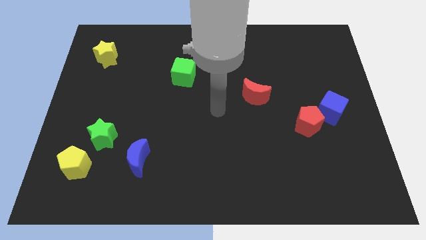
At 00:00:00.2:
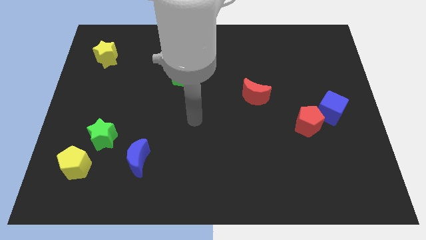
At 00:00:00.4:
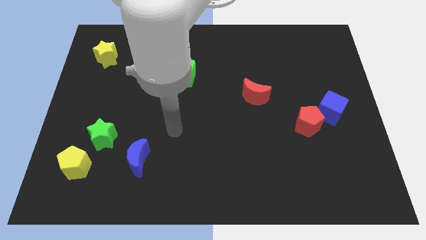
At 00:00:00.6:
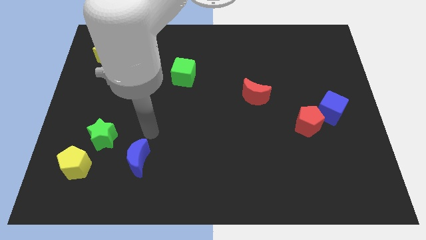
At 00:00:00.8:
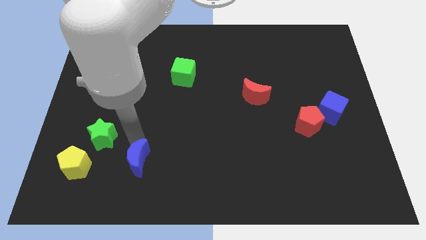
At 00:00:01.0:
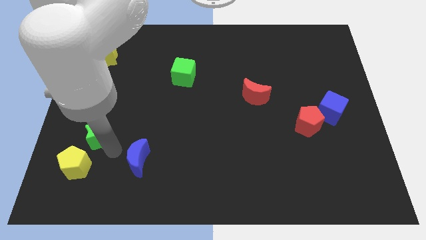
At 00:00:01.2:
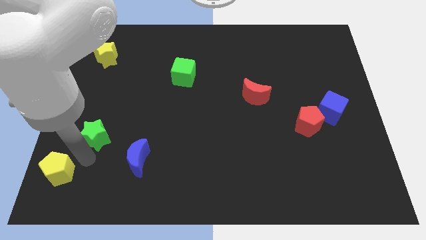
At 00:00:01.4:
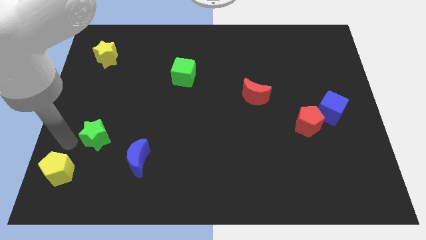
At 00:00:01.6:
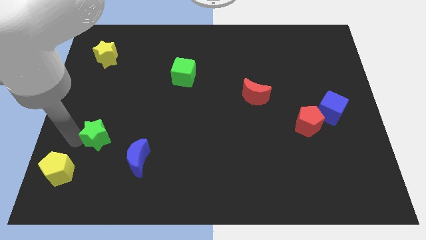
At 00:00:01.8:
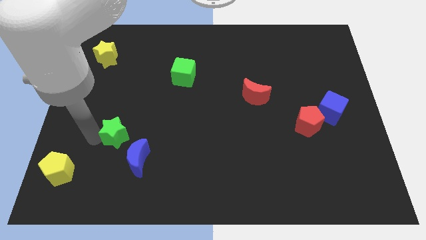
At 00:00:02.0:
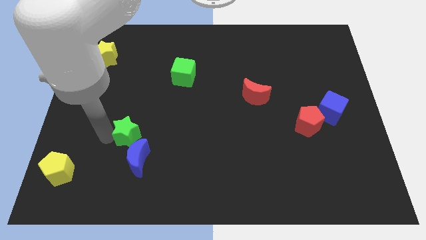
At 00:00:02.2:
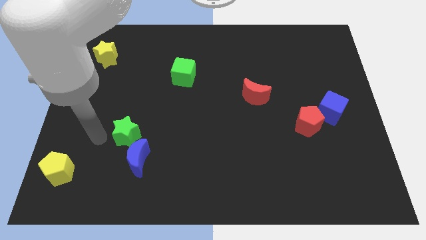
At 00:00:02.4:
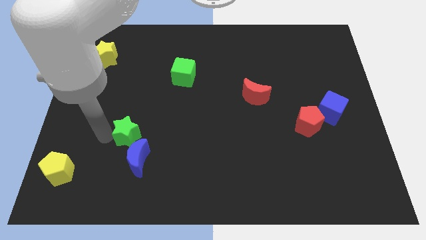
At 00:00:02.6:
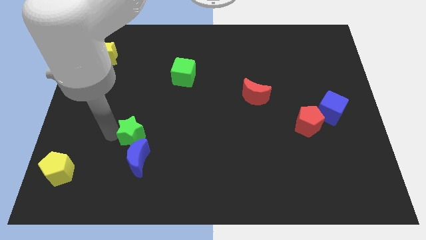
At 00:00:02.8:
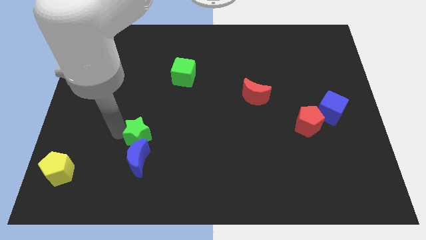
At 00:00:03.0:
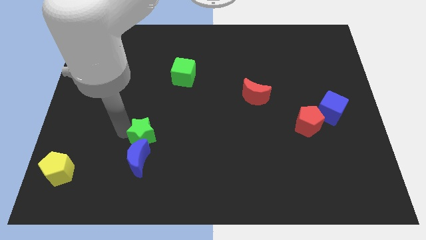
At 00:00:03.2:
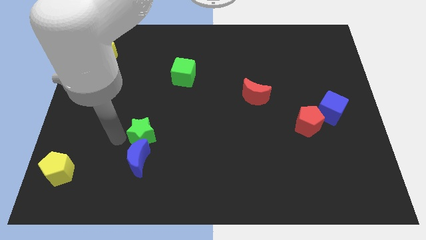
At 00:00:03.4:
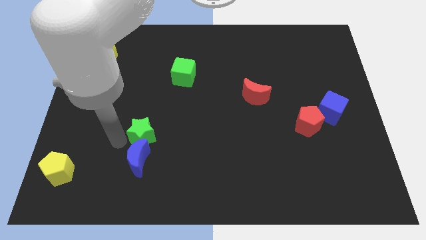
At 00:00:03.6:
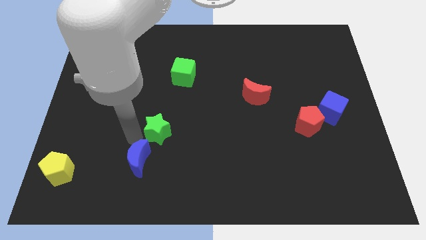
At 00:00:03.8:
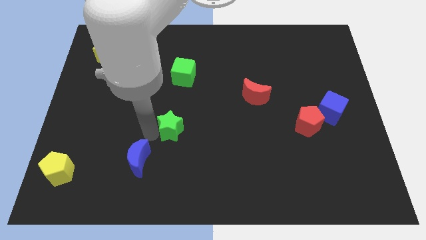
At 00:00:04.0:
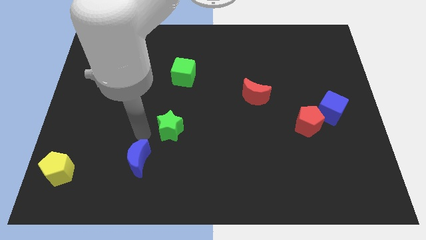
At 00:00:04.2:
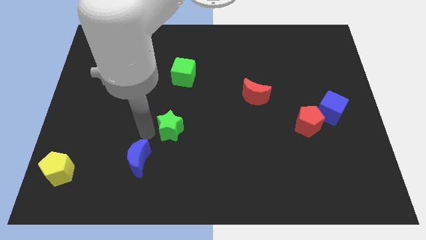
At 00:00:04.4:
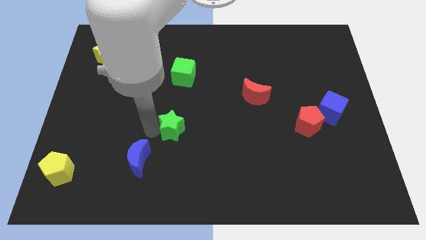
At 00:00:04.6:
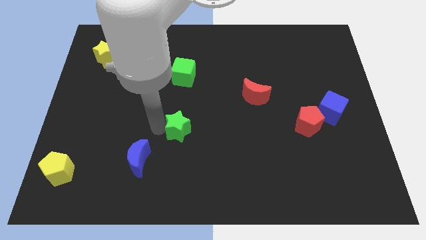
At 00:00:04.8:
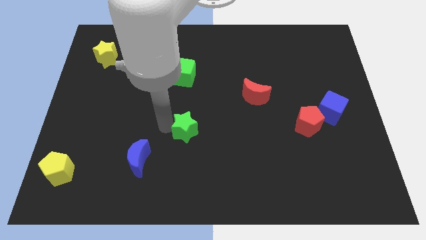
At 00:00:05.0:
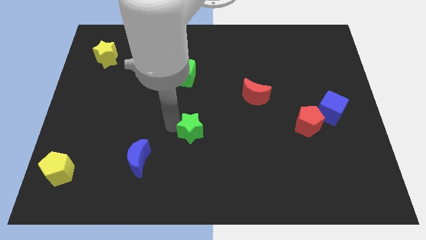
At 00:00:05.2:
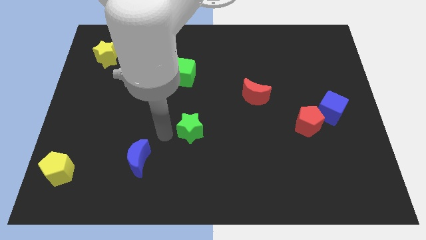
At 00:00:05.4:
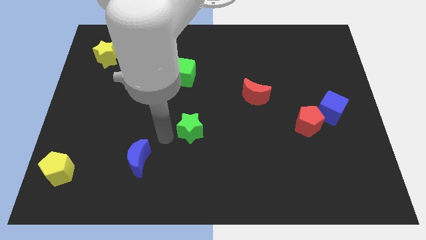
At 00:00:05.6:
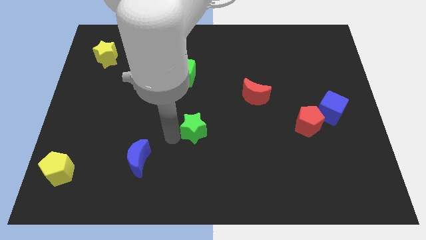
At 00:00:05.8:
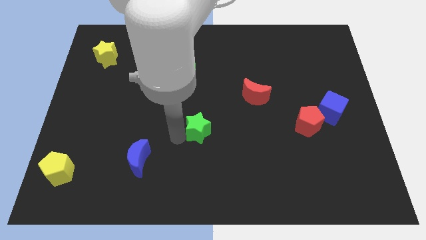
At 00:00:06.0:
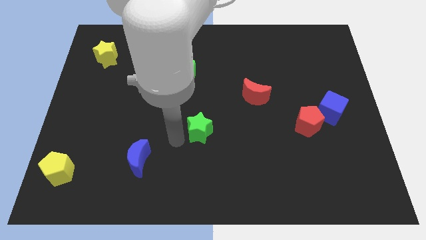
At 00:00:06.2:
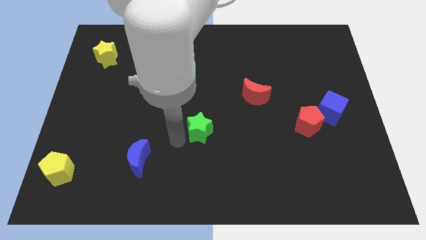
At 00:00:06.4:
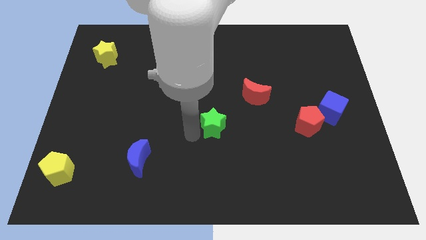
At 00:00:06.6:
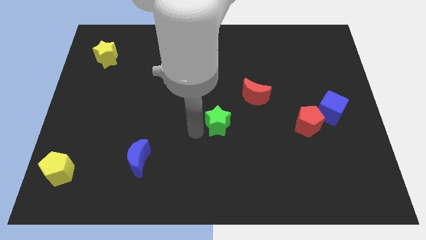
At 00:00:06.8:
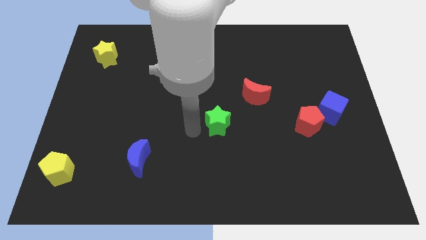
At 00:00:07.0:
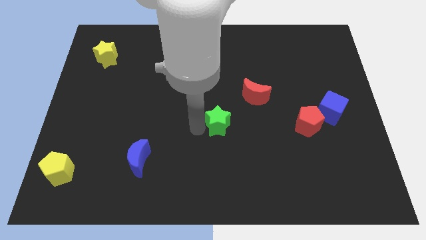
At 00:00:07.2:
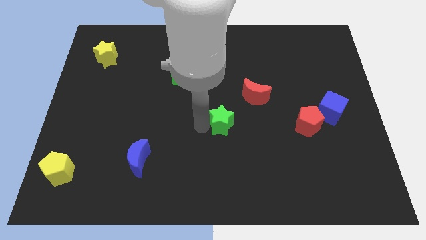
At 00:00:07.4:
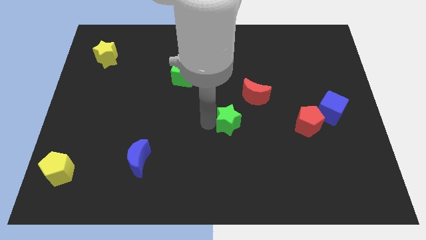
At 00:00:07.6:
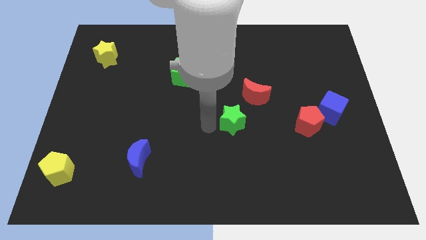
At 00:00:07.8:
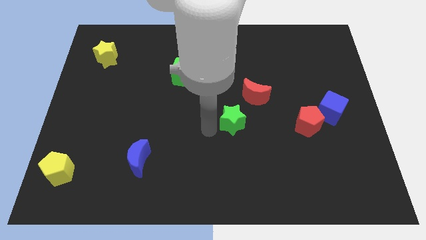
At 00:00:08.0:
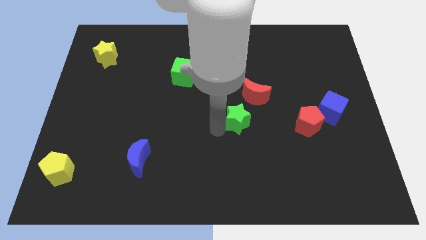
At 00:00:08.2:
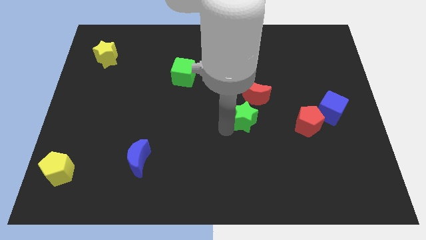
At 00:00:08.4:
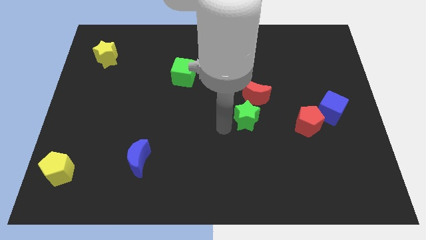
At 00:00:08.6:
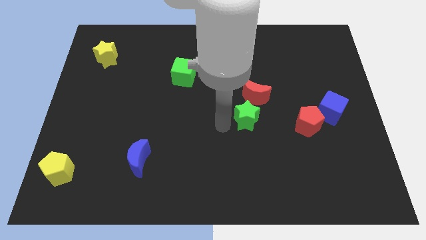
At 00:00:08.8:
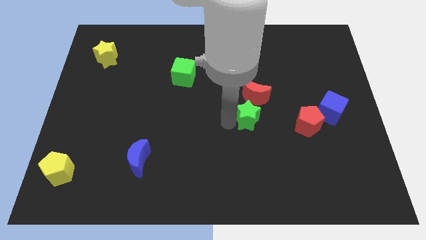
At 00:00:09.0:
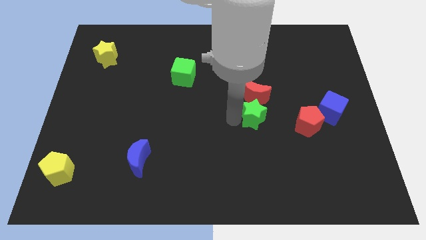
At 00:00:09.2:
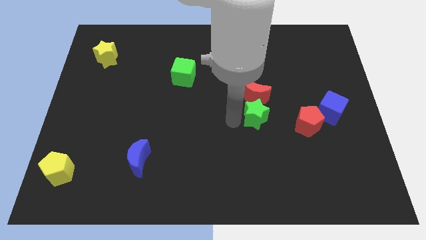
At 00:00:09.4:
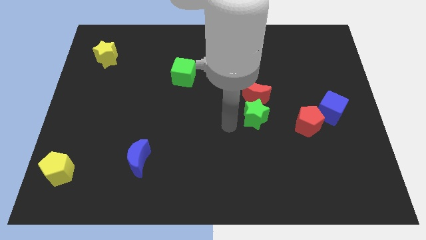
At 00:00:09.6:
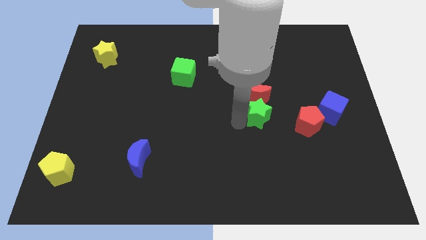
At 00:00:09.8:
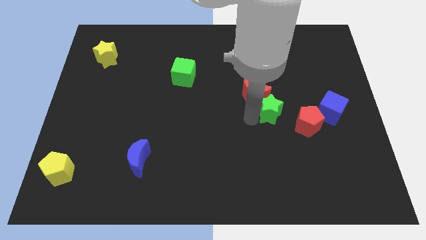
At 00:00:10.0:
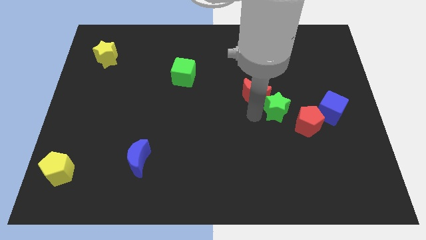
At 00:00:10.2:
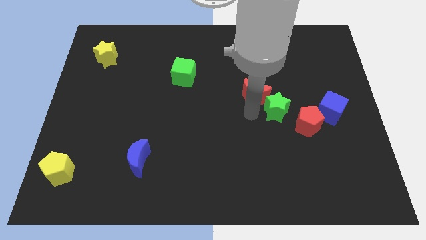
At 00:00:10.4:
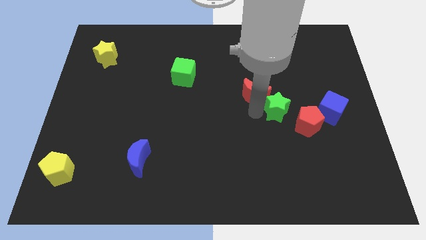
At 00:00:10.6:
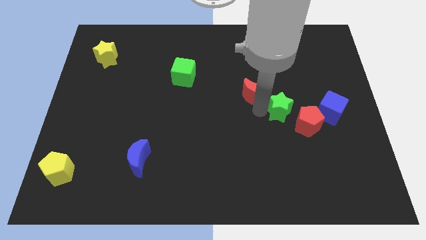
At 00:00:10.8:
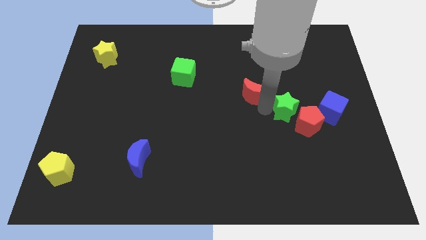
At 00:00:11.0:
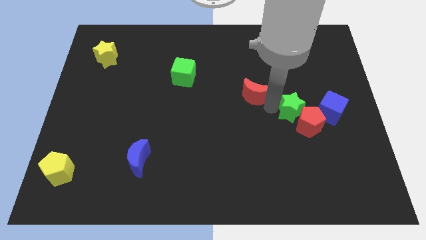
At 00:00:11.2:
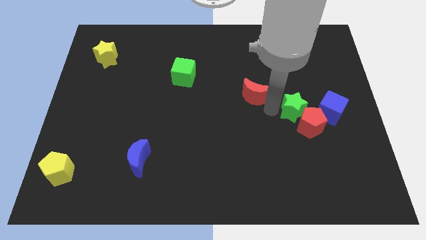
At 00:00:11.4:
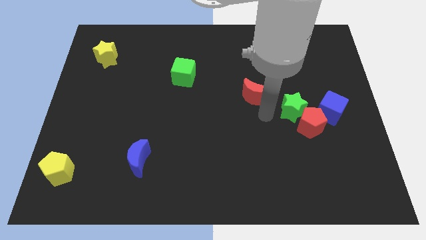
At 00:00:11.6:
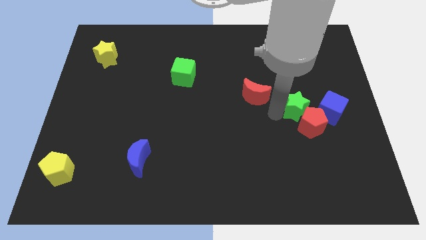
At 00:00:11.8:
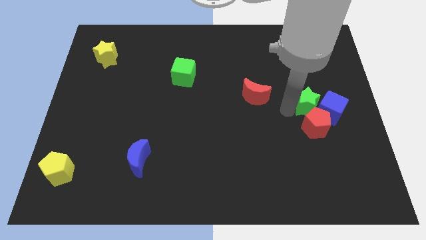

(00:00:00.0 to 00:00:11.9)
move the green star close to the blue cube

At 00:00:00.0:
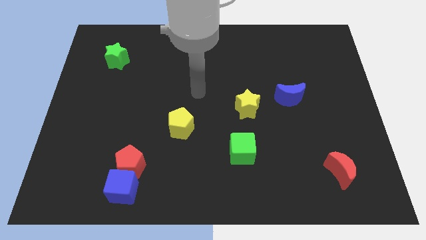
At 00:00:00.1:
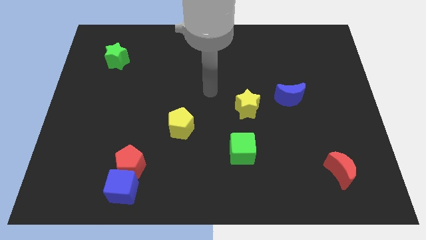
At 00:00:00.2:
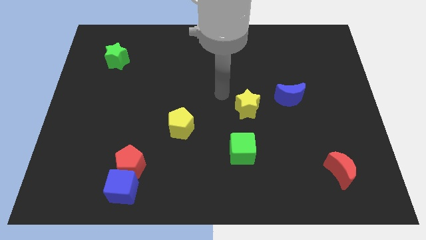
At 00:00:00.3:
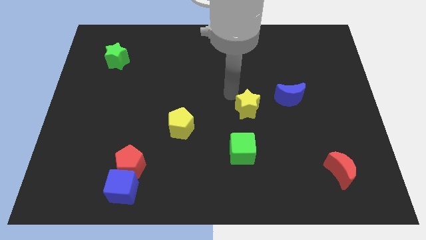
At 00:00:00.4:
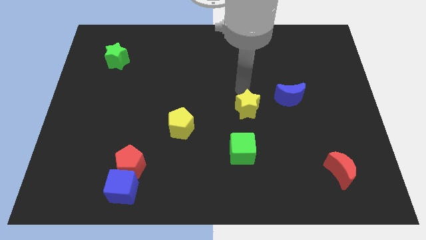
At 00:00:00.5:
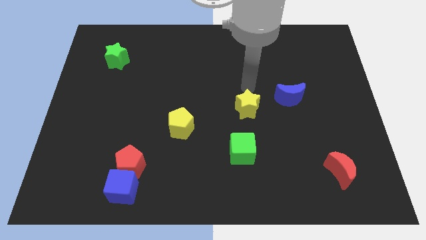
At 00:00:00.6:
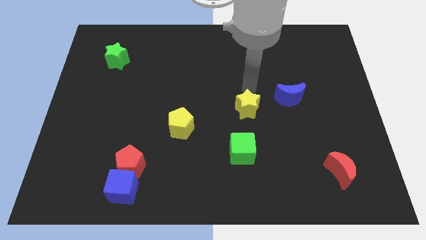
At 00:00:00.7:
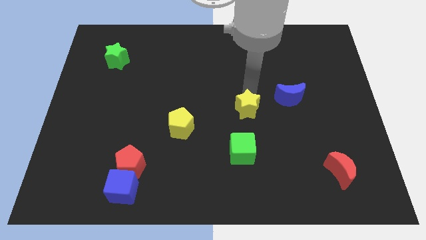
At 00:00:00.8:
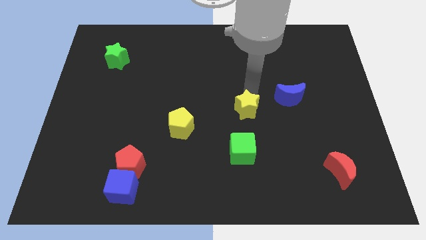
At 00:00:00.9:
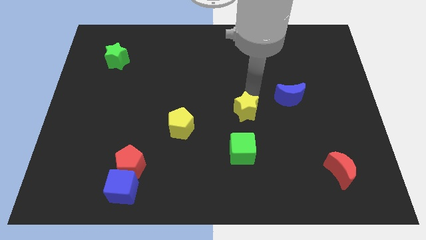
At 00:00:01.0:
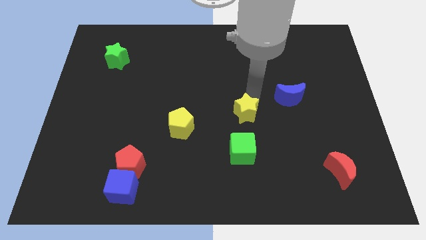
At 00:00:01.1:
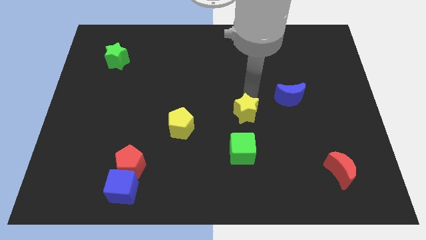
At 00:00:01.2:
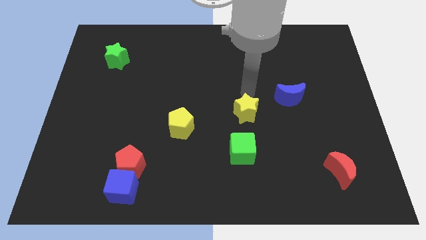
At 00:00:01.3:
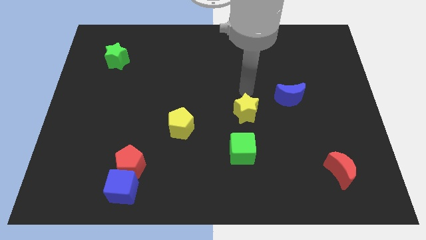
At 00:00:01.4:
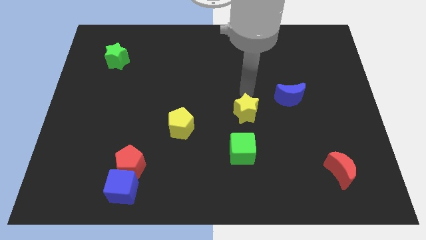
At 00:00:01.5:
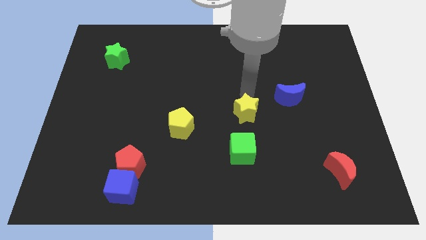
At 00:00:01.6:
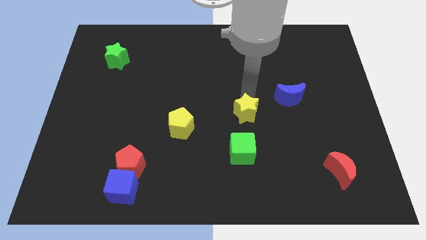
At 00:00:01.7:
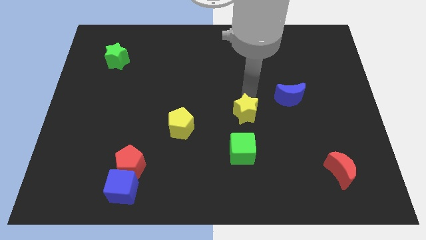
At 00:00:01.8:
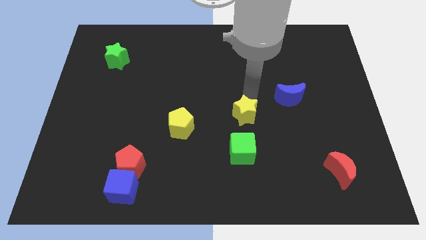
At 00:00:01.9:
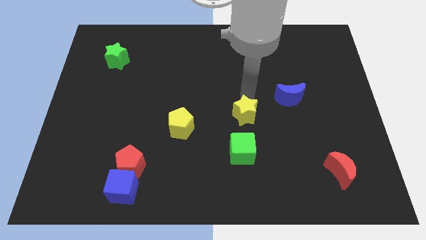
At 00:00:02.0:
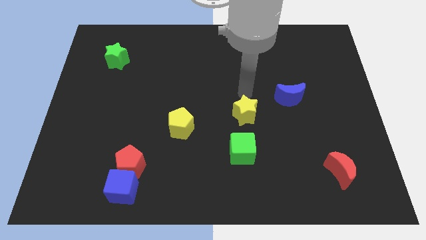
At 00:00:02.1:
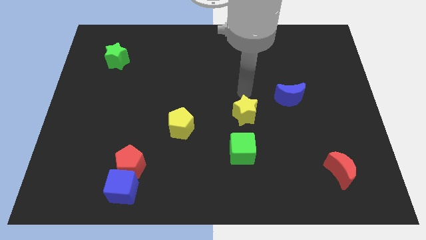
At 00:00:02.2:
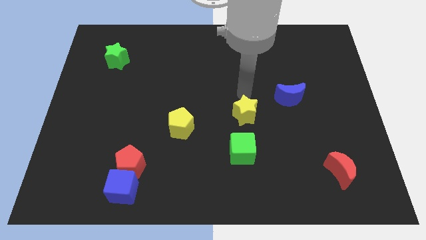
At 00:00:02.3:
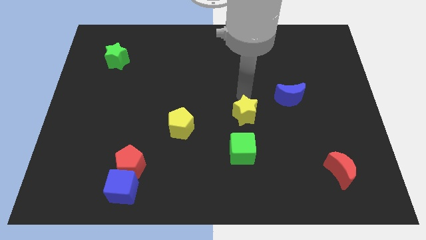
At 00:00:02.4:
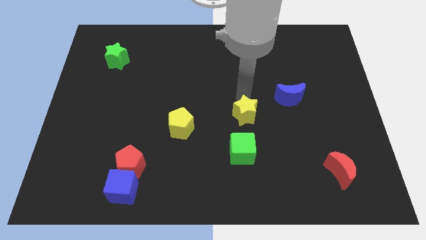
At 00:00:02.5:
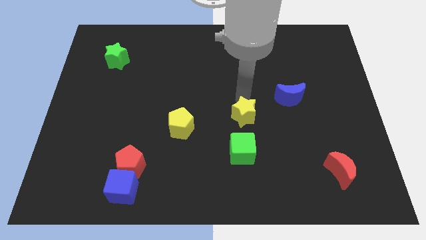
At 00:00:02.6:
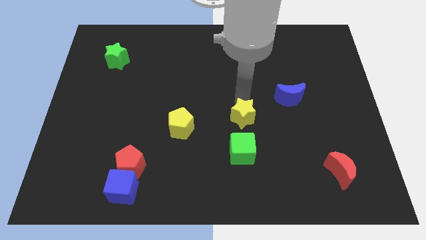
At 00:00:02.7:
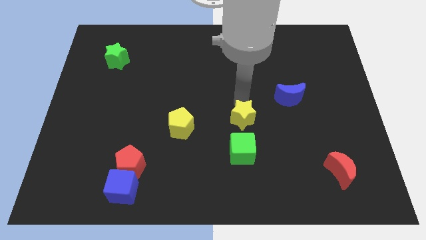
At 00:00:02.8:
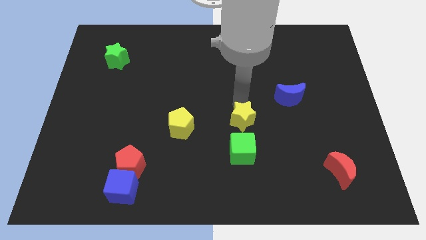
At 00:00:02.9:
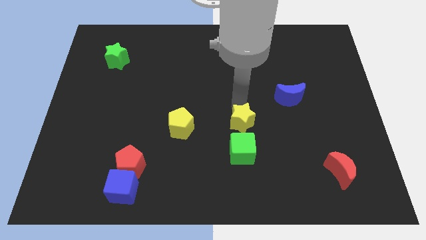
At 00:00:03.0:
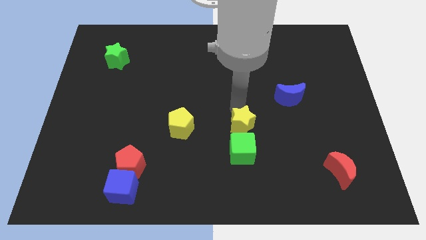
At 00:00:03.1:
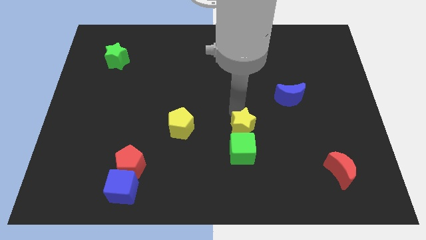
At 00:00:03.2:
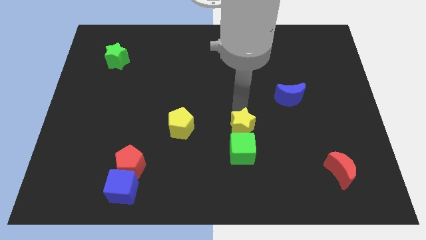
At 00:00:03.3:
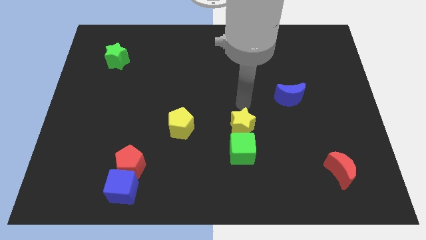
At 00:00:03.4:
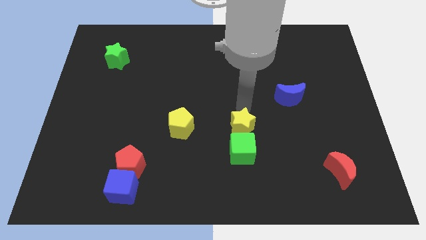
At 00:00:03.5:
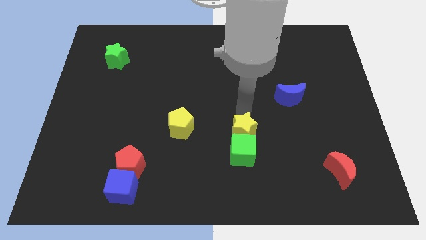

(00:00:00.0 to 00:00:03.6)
push the yellow star towards the green cube
